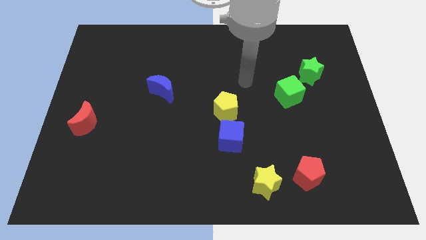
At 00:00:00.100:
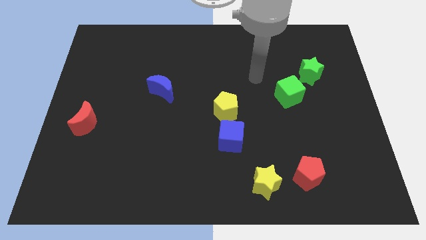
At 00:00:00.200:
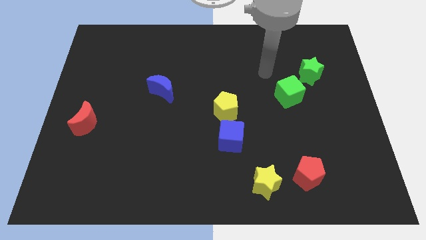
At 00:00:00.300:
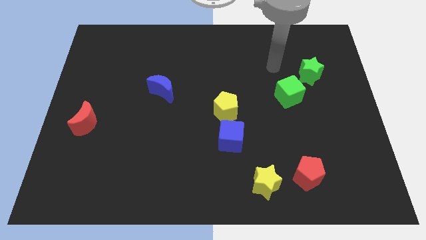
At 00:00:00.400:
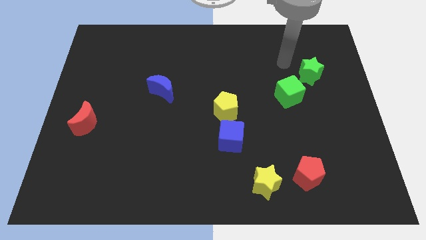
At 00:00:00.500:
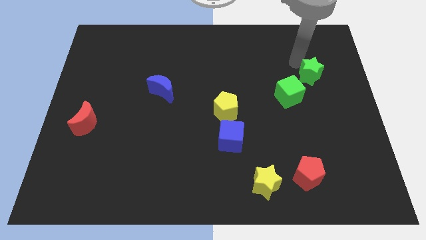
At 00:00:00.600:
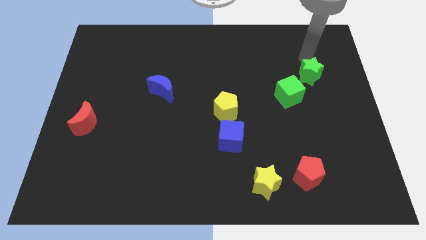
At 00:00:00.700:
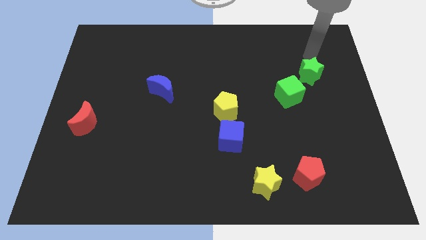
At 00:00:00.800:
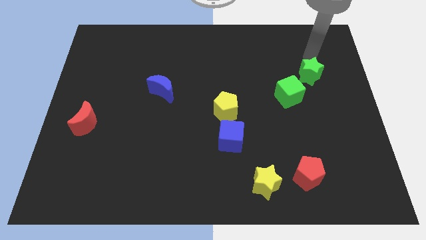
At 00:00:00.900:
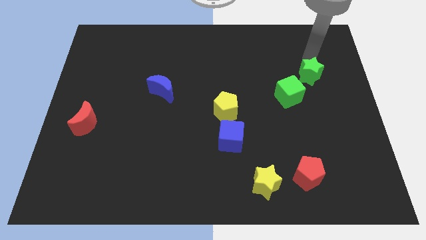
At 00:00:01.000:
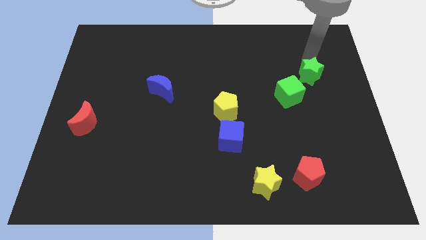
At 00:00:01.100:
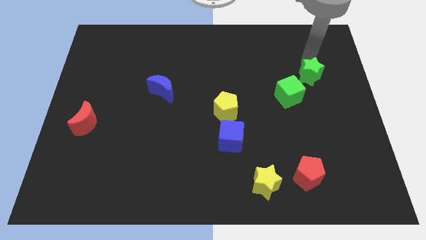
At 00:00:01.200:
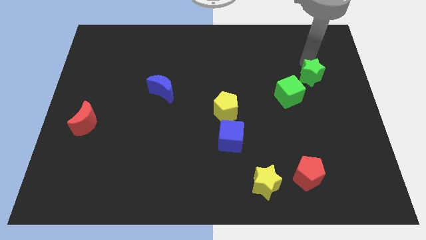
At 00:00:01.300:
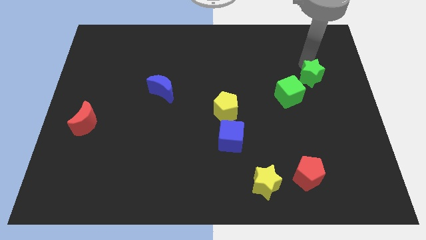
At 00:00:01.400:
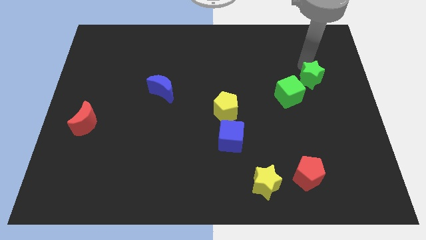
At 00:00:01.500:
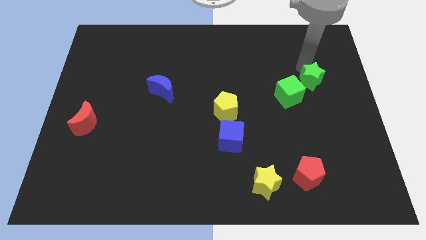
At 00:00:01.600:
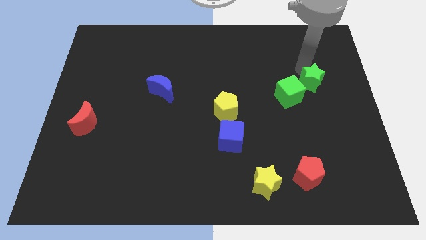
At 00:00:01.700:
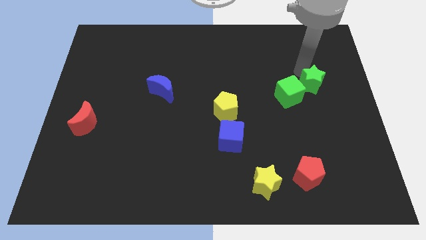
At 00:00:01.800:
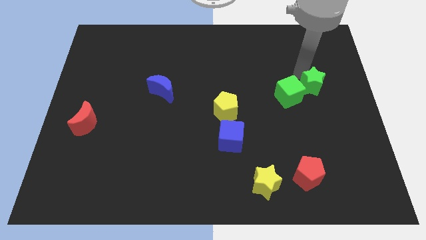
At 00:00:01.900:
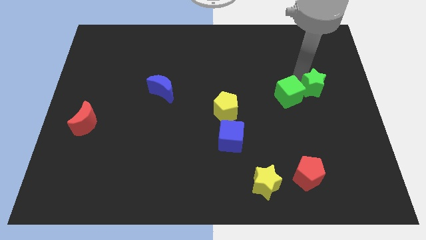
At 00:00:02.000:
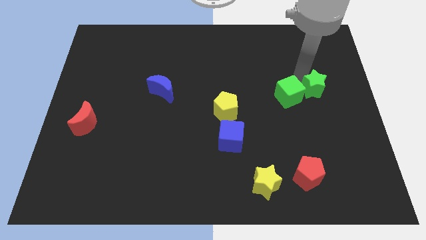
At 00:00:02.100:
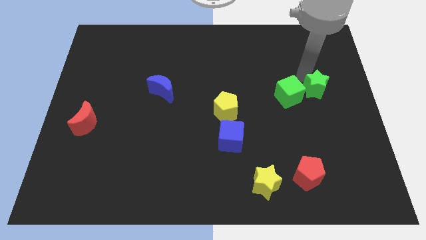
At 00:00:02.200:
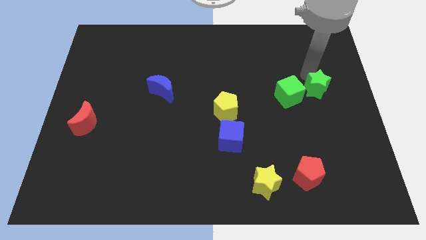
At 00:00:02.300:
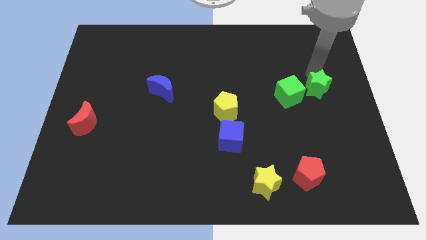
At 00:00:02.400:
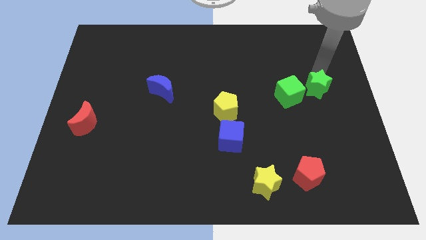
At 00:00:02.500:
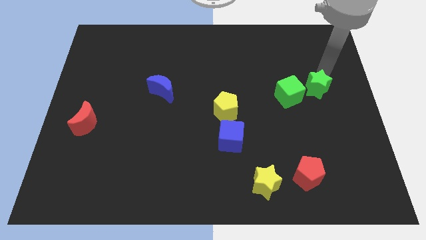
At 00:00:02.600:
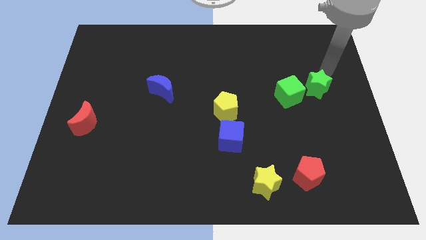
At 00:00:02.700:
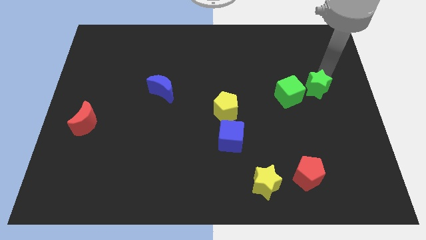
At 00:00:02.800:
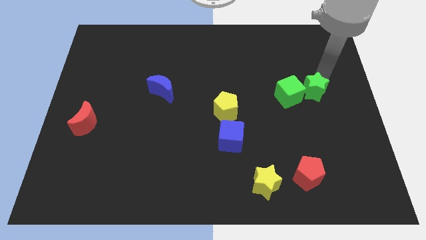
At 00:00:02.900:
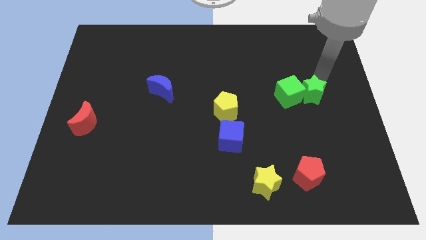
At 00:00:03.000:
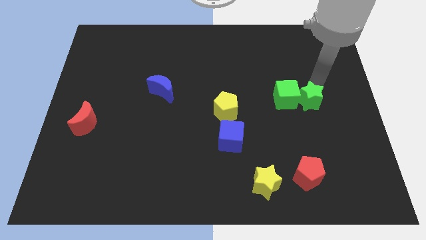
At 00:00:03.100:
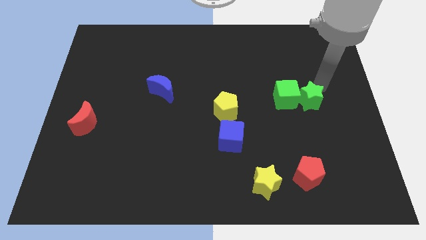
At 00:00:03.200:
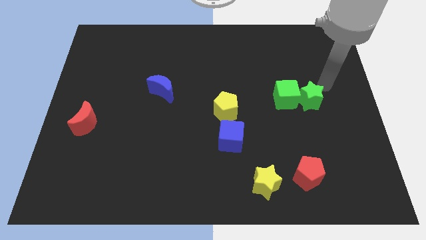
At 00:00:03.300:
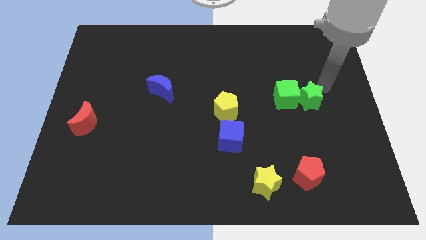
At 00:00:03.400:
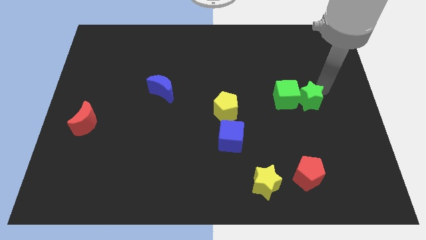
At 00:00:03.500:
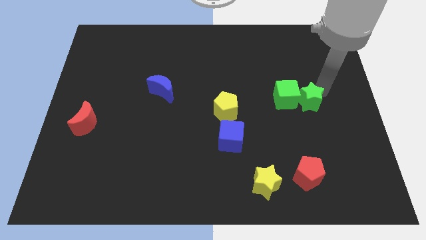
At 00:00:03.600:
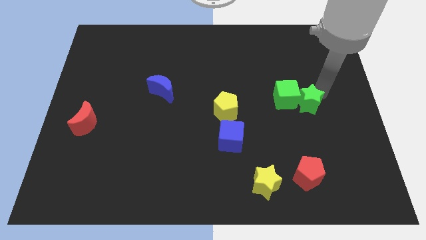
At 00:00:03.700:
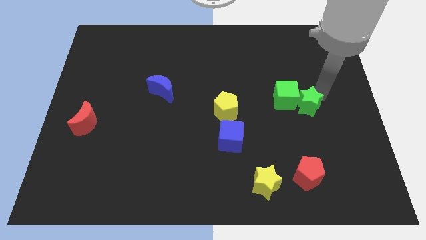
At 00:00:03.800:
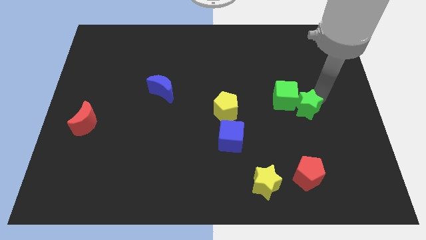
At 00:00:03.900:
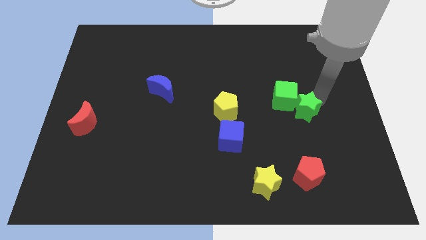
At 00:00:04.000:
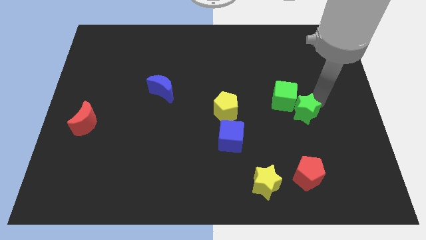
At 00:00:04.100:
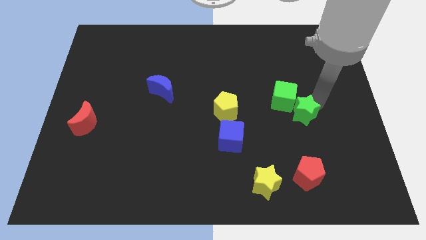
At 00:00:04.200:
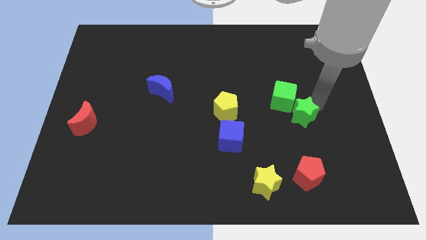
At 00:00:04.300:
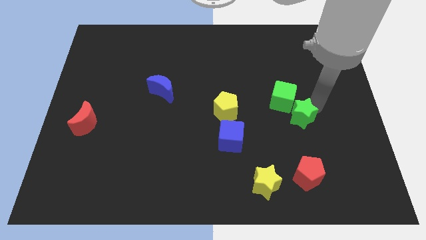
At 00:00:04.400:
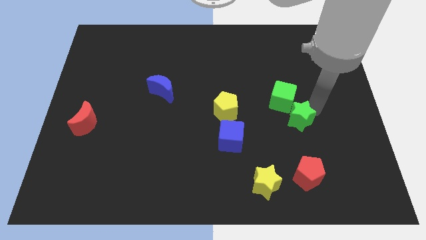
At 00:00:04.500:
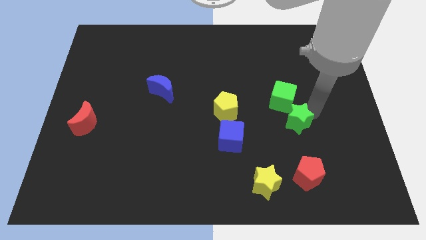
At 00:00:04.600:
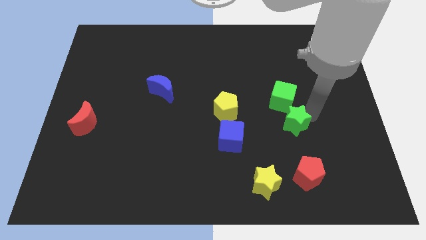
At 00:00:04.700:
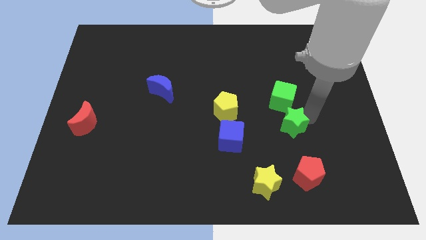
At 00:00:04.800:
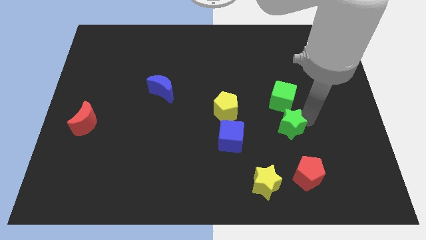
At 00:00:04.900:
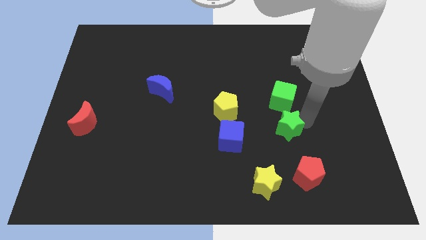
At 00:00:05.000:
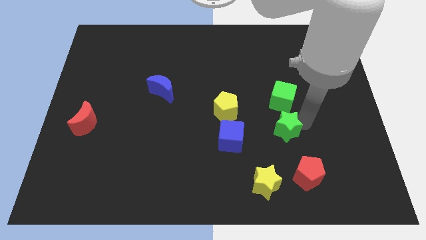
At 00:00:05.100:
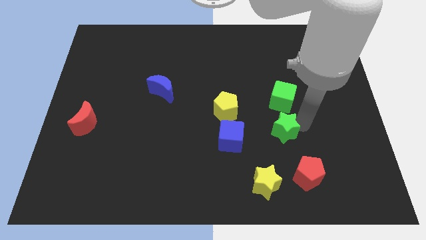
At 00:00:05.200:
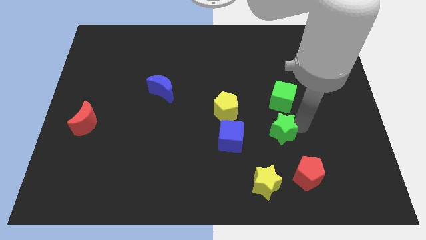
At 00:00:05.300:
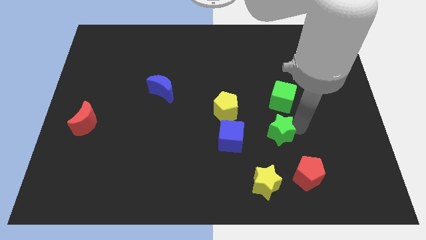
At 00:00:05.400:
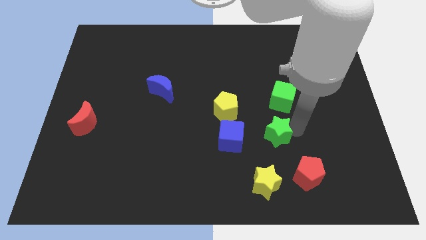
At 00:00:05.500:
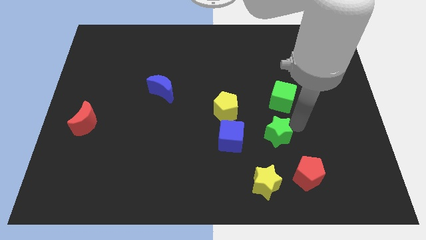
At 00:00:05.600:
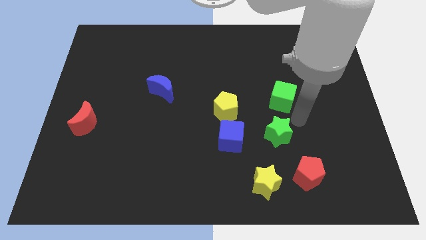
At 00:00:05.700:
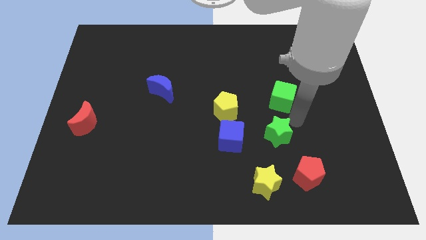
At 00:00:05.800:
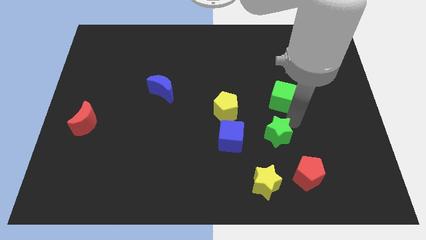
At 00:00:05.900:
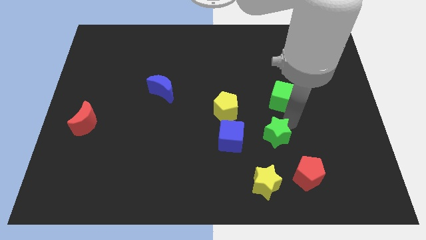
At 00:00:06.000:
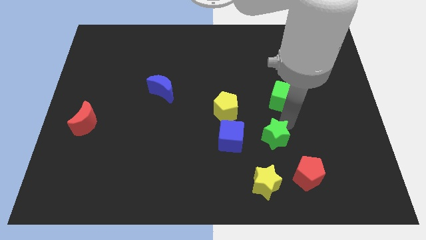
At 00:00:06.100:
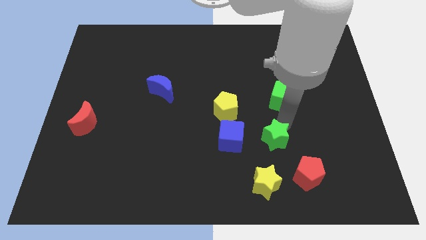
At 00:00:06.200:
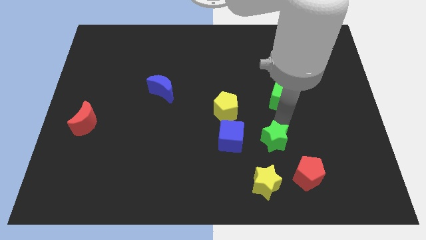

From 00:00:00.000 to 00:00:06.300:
push the green star down and left

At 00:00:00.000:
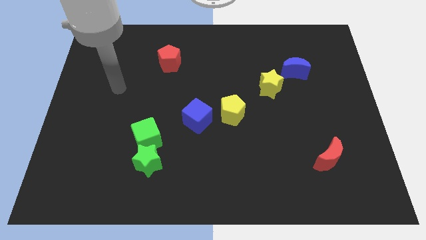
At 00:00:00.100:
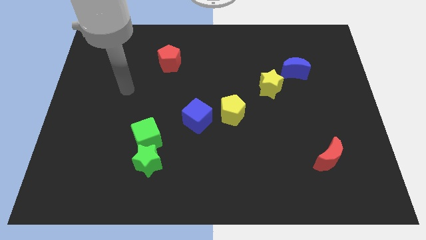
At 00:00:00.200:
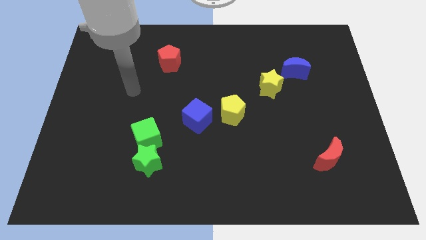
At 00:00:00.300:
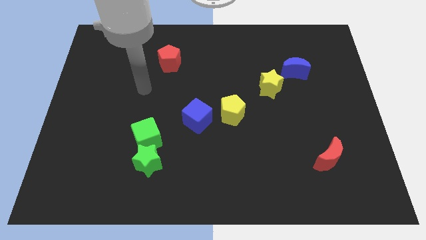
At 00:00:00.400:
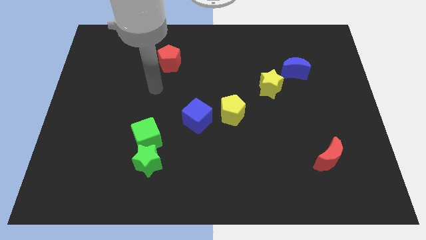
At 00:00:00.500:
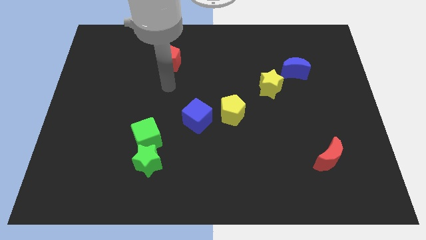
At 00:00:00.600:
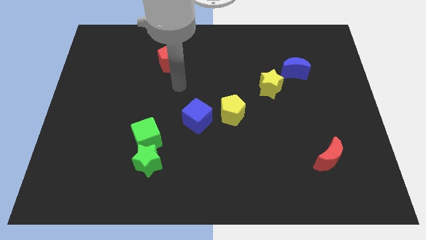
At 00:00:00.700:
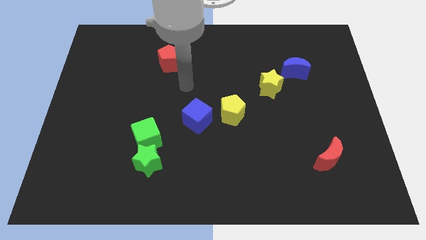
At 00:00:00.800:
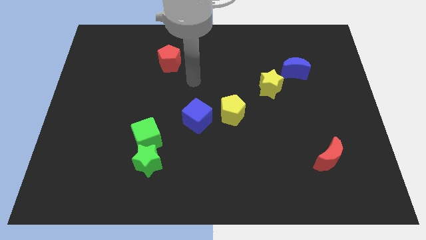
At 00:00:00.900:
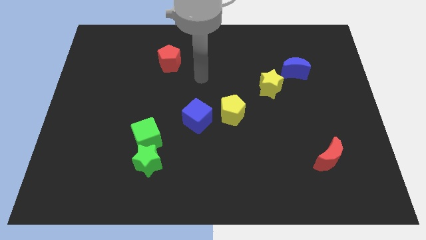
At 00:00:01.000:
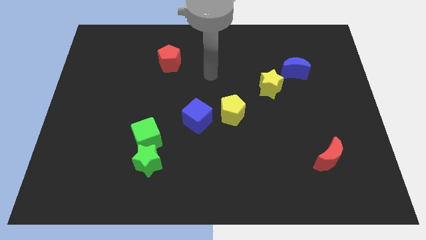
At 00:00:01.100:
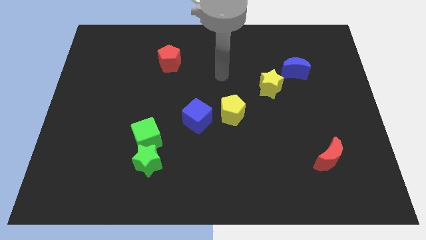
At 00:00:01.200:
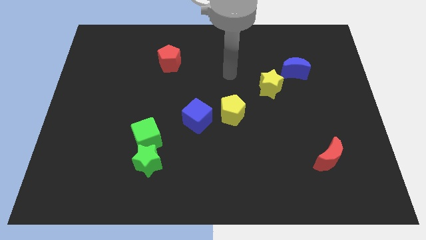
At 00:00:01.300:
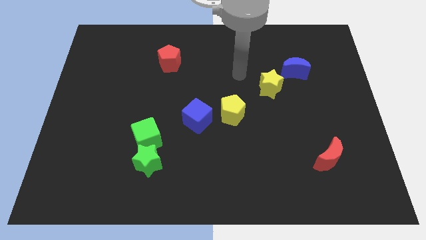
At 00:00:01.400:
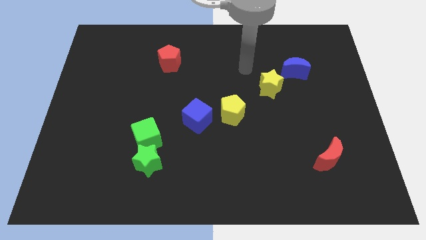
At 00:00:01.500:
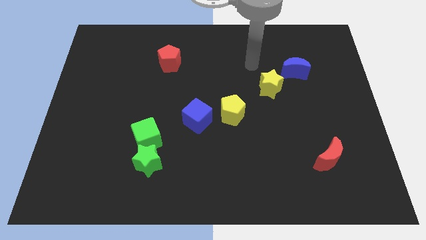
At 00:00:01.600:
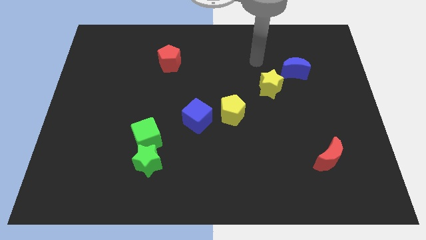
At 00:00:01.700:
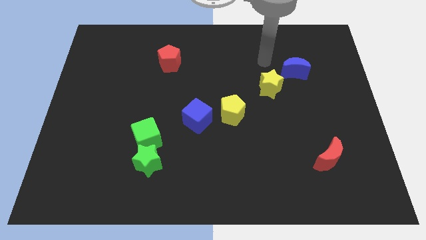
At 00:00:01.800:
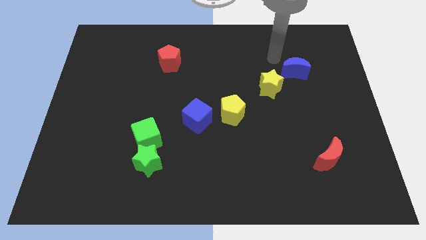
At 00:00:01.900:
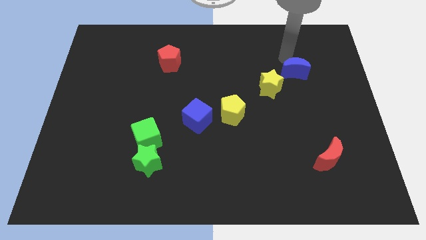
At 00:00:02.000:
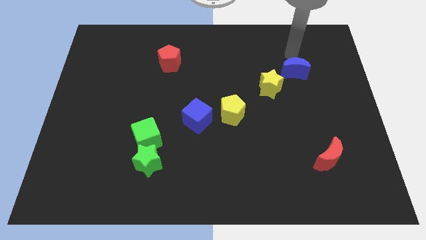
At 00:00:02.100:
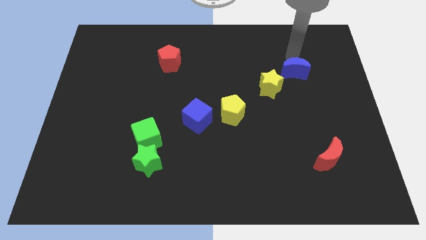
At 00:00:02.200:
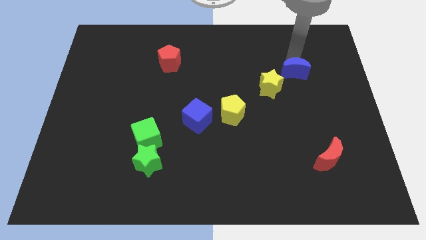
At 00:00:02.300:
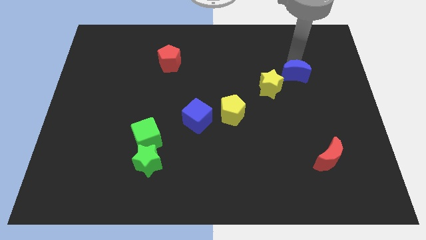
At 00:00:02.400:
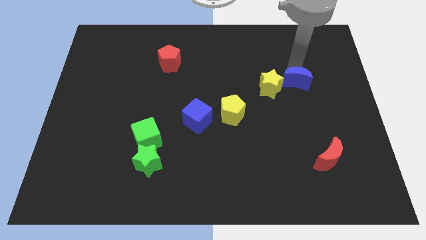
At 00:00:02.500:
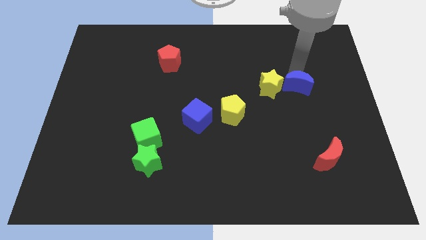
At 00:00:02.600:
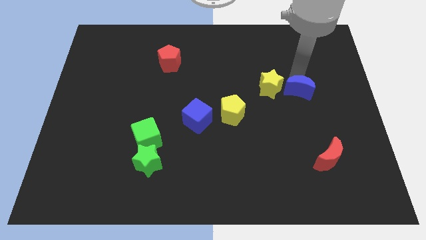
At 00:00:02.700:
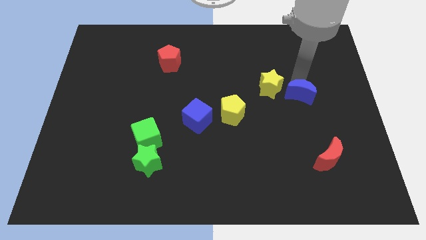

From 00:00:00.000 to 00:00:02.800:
slightly move the blue moon down
